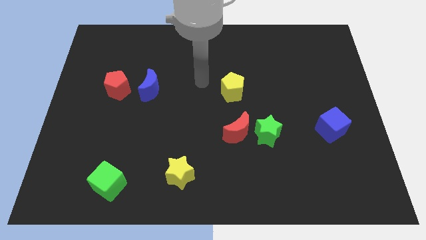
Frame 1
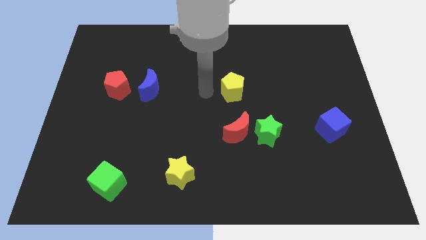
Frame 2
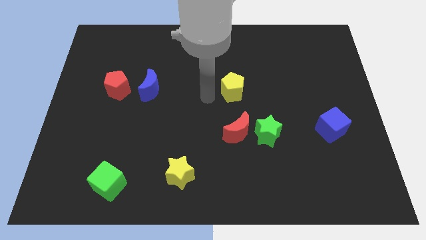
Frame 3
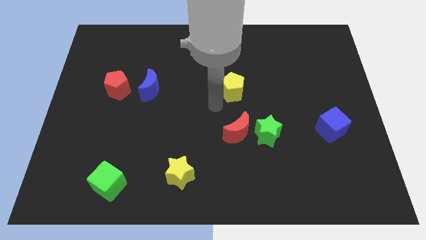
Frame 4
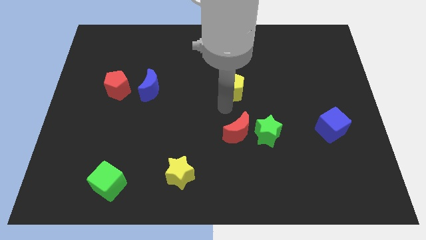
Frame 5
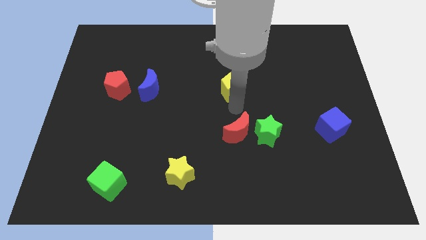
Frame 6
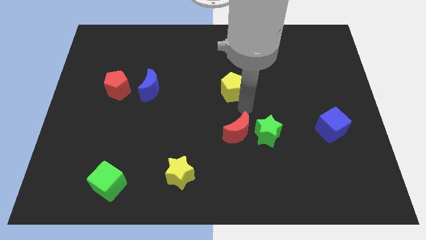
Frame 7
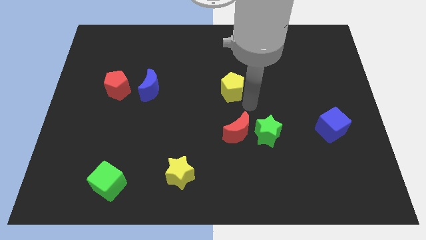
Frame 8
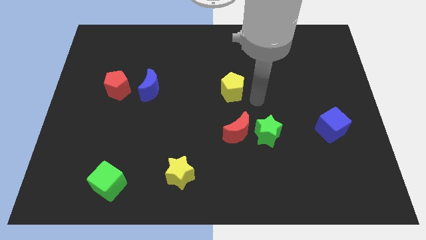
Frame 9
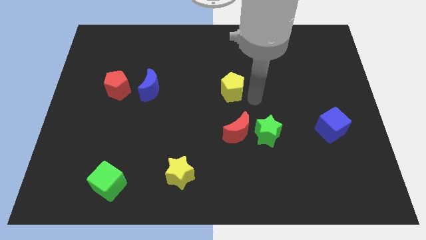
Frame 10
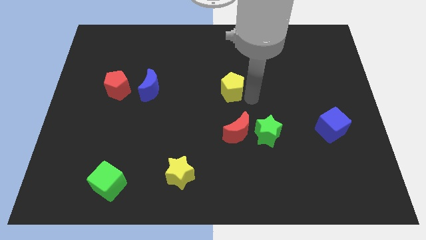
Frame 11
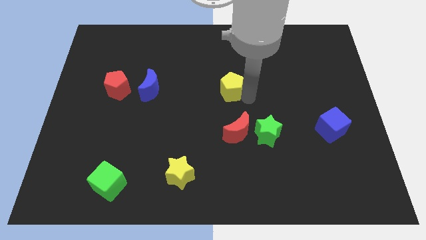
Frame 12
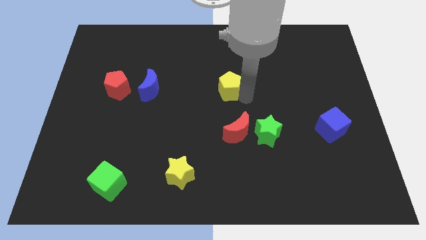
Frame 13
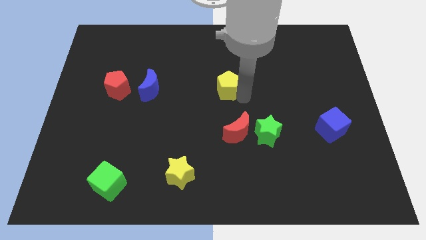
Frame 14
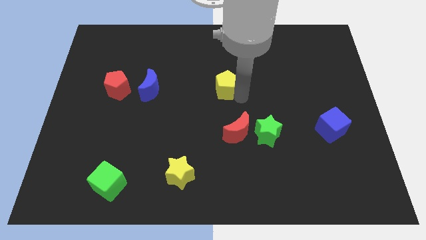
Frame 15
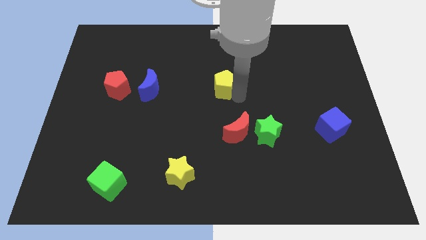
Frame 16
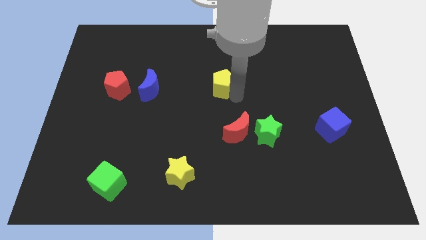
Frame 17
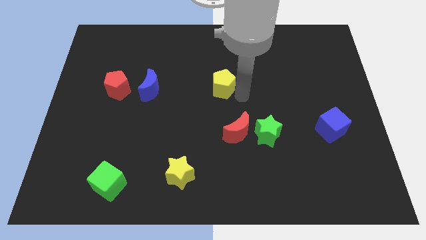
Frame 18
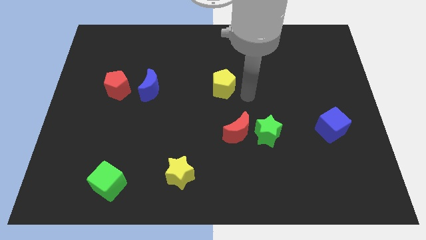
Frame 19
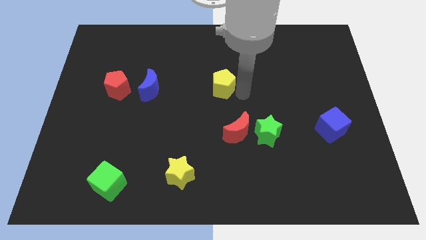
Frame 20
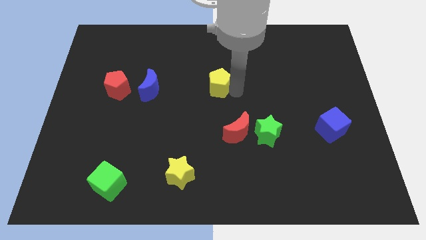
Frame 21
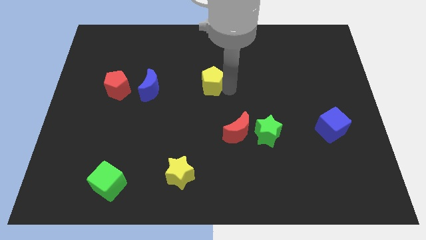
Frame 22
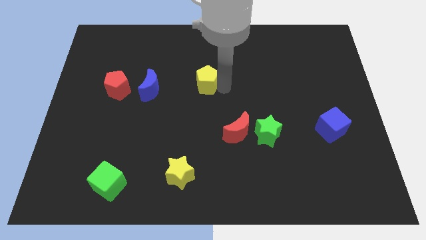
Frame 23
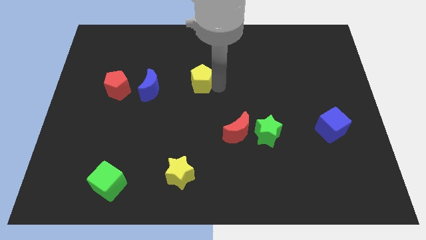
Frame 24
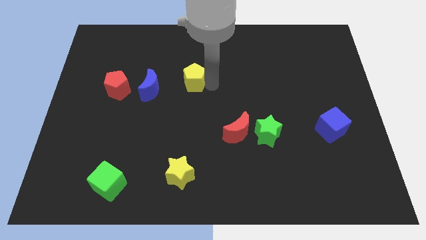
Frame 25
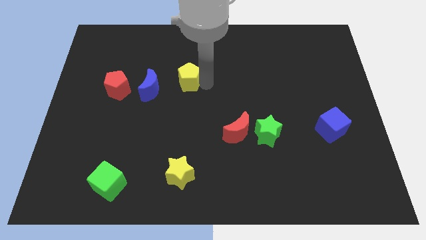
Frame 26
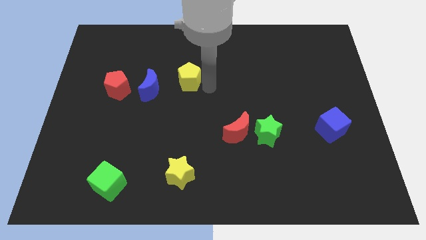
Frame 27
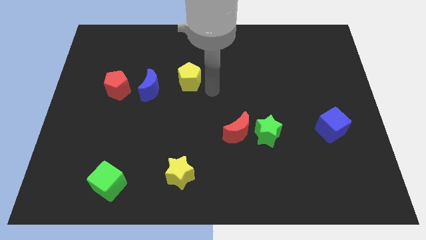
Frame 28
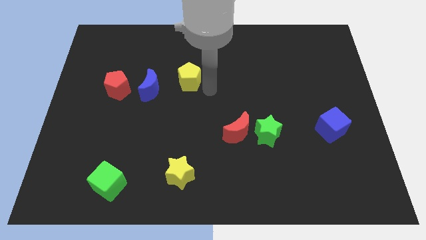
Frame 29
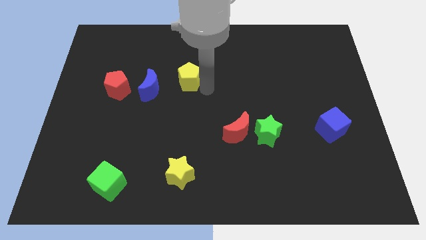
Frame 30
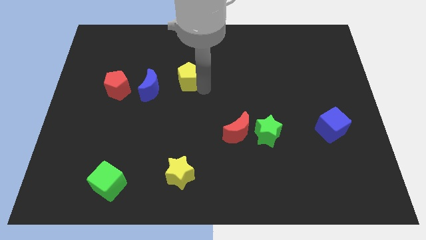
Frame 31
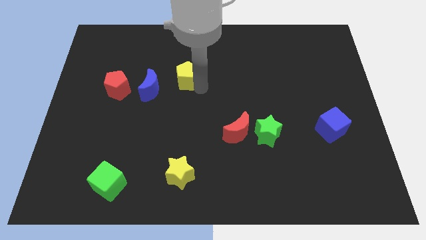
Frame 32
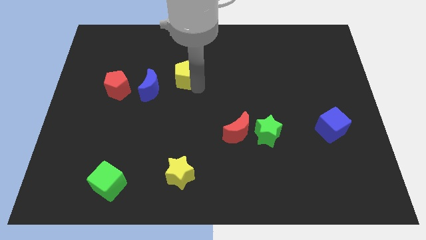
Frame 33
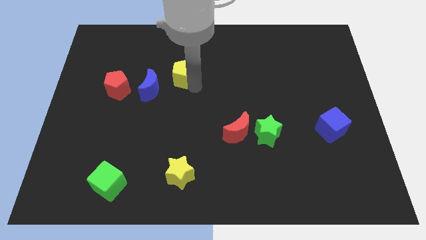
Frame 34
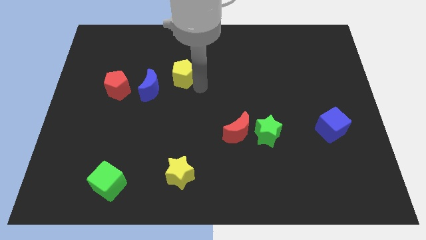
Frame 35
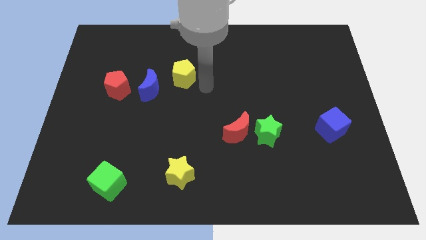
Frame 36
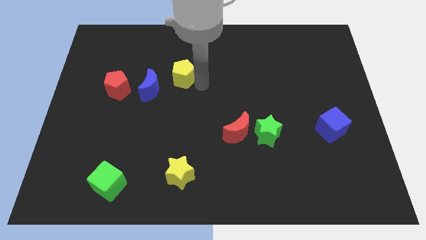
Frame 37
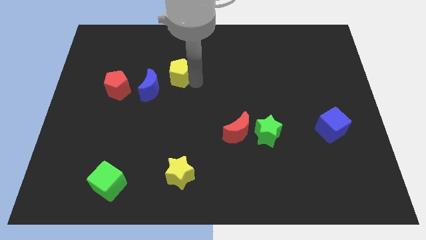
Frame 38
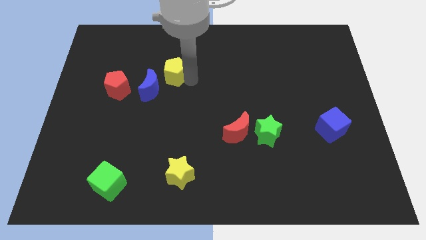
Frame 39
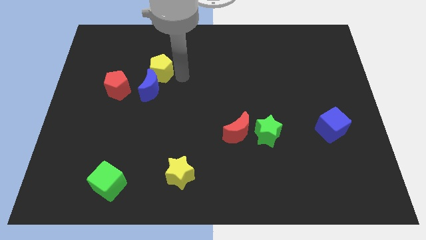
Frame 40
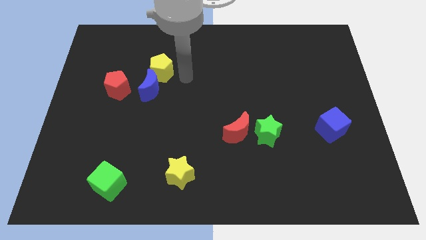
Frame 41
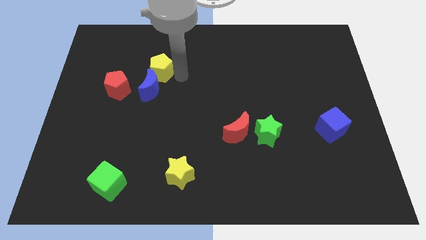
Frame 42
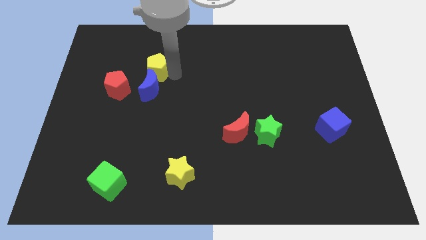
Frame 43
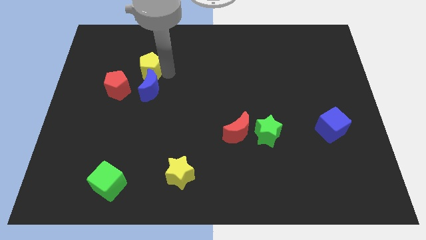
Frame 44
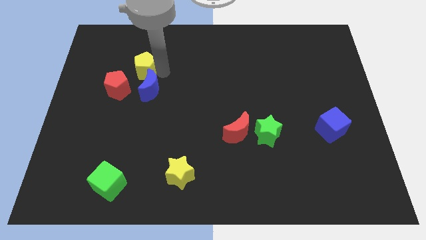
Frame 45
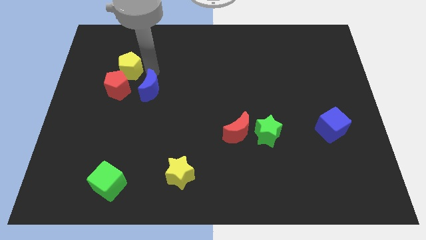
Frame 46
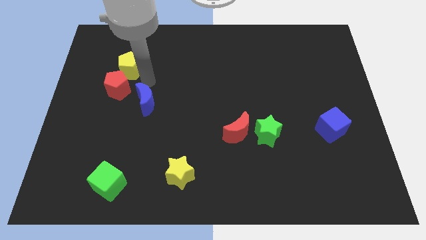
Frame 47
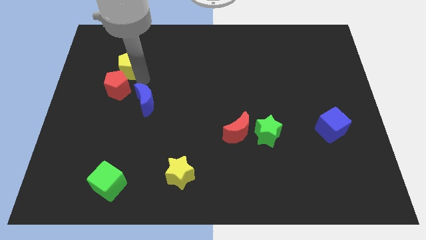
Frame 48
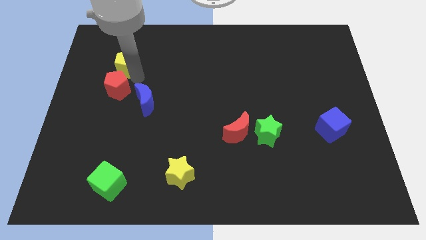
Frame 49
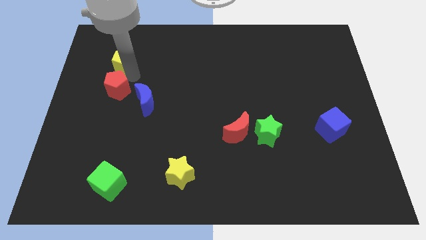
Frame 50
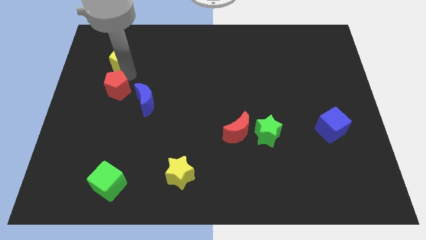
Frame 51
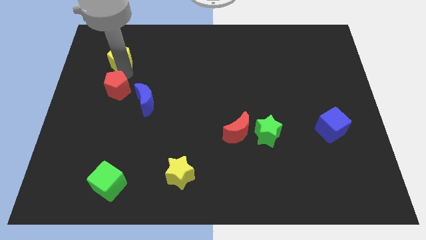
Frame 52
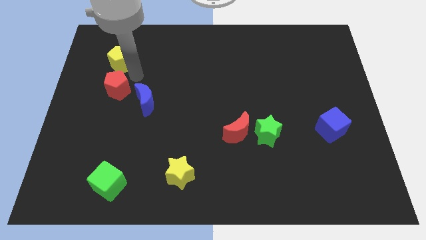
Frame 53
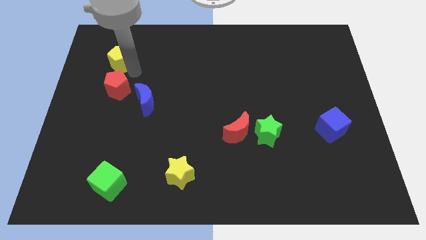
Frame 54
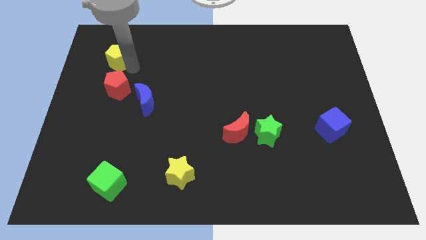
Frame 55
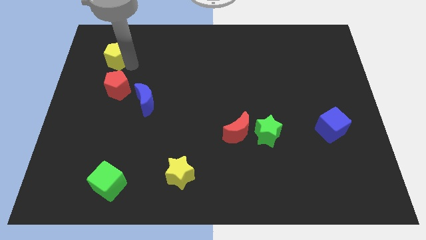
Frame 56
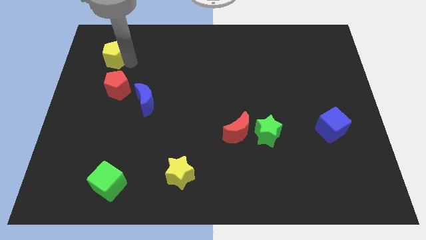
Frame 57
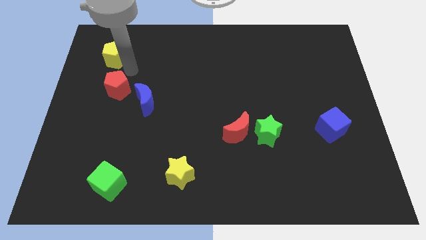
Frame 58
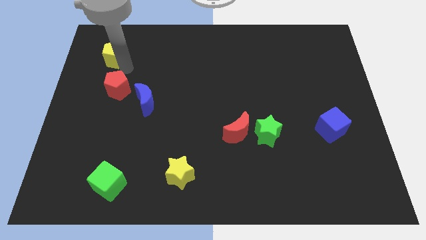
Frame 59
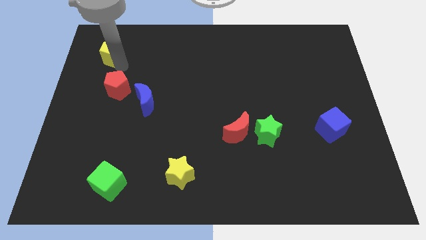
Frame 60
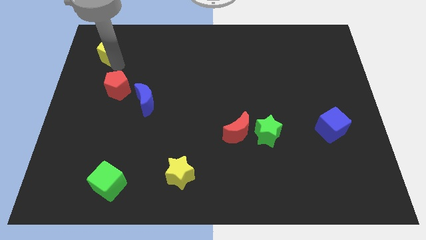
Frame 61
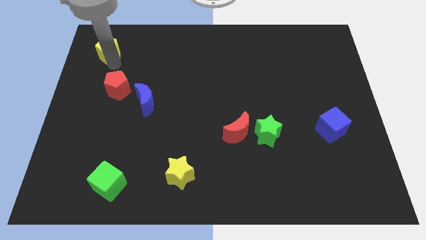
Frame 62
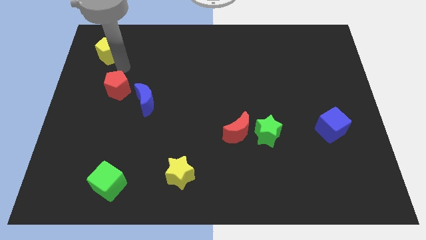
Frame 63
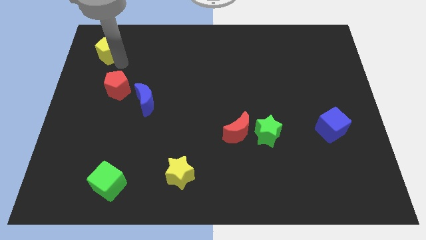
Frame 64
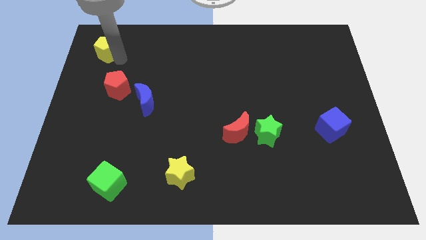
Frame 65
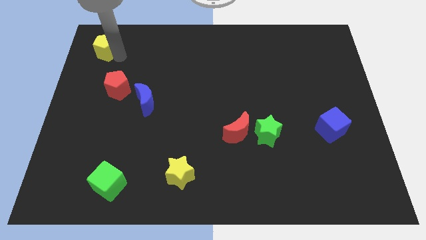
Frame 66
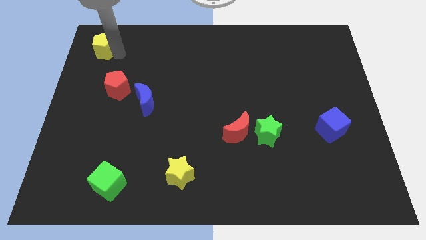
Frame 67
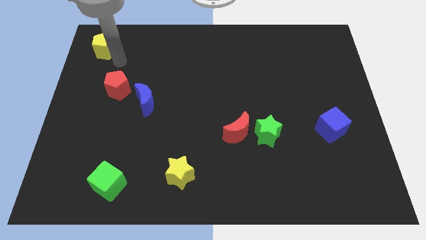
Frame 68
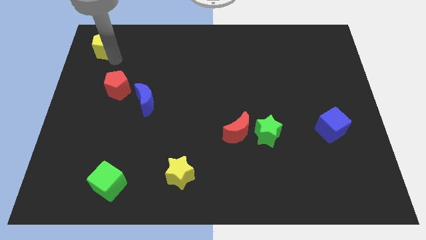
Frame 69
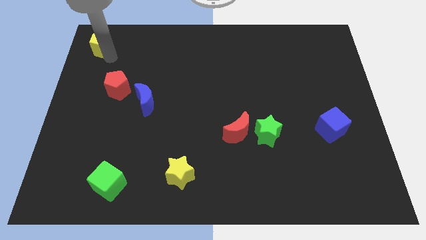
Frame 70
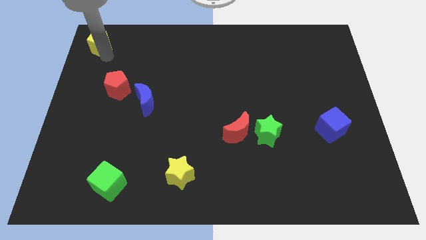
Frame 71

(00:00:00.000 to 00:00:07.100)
slide the yellow pentagon to the top left

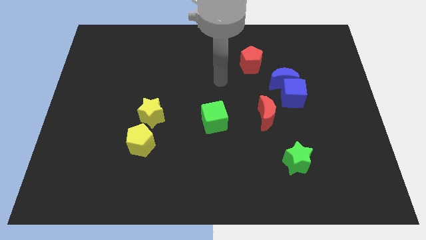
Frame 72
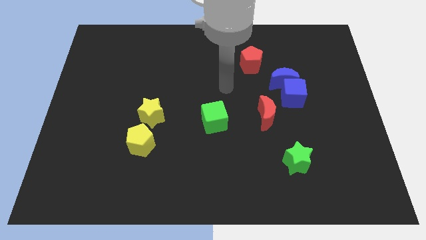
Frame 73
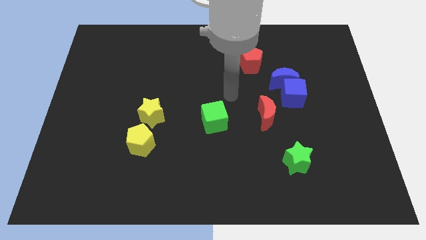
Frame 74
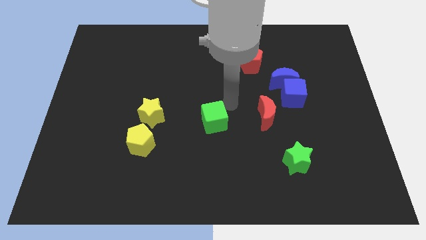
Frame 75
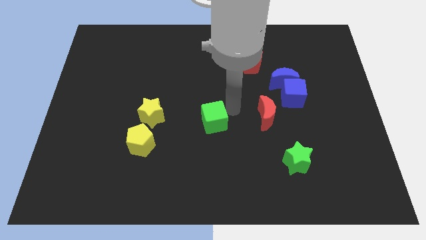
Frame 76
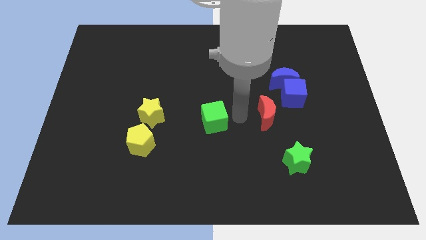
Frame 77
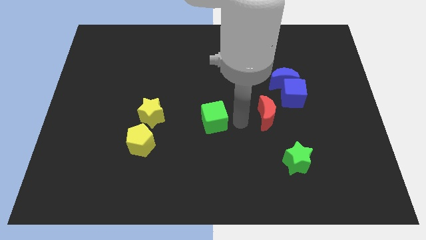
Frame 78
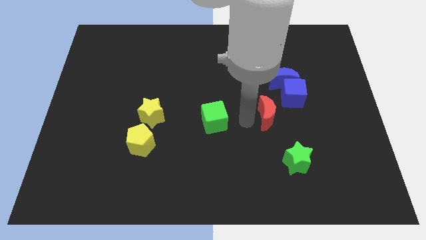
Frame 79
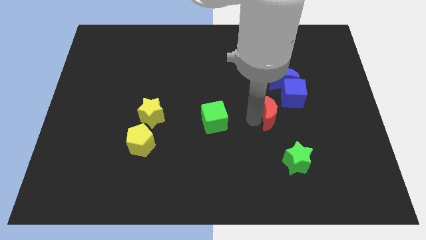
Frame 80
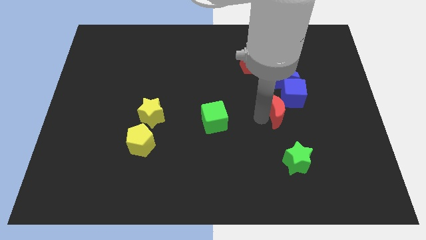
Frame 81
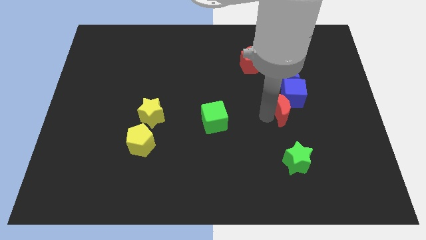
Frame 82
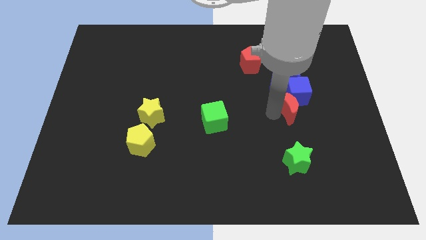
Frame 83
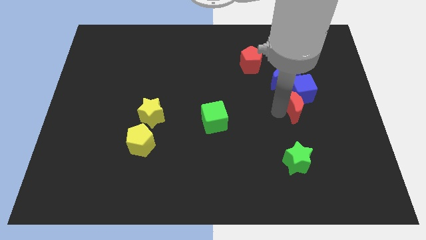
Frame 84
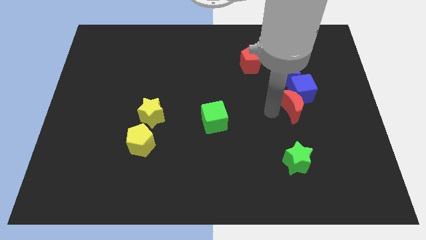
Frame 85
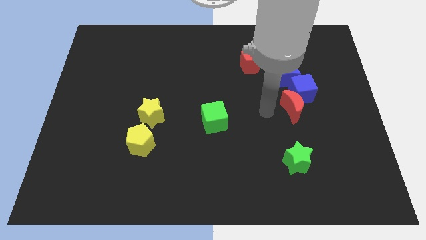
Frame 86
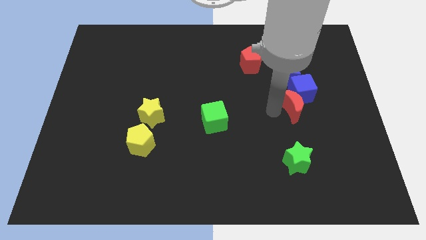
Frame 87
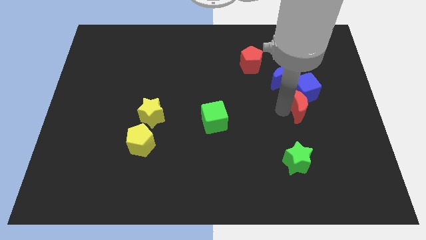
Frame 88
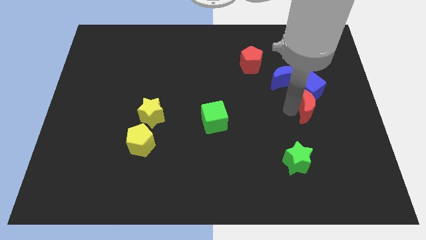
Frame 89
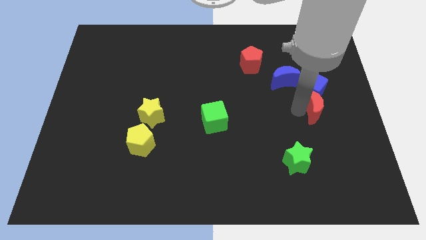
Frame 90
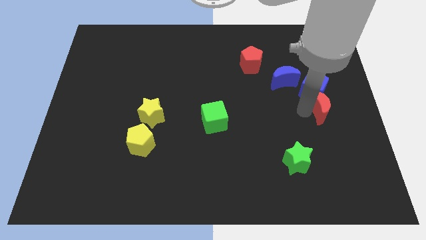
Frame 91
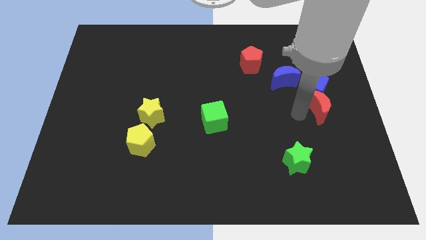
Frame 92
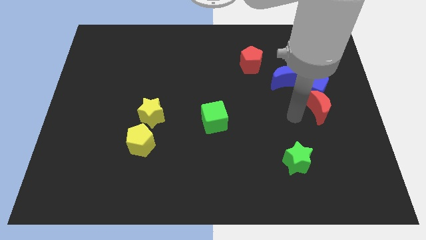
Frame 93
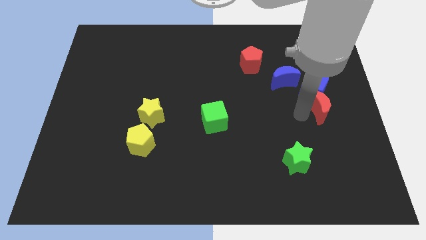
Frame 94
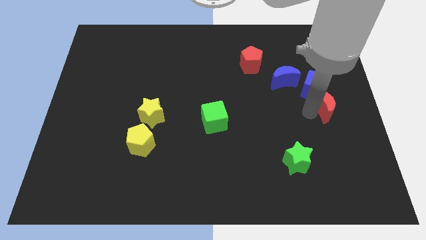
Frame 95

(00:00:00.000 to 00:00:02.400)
move the red moon to the right side of the board
